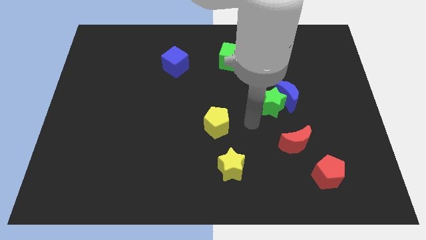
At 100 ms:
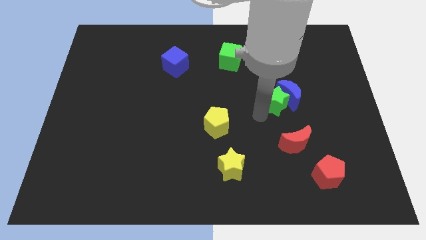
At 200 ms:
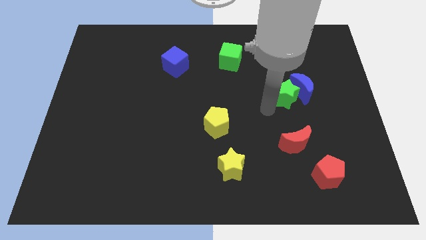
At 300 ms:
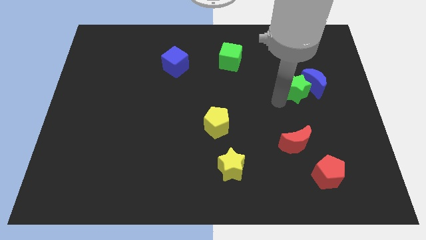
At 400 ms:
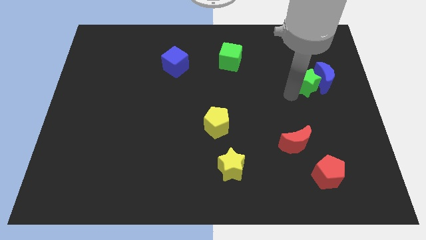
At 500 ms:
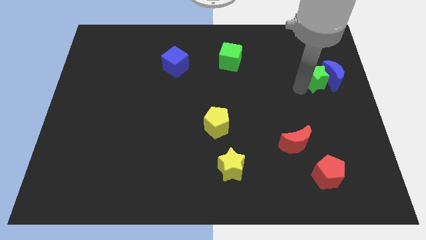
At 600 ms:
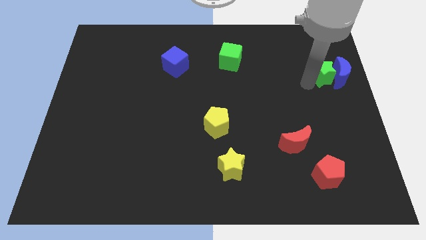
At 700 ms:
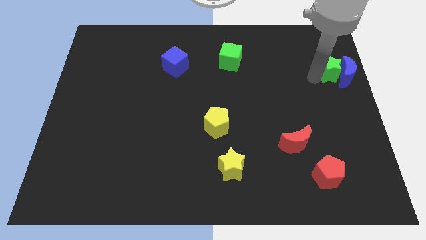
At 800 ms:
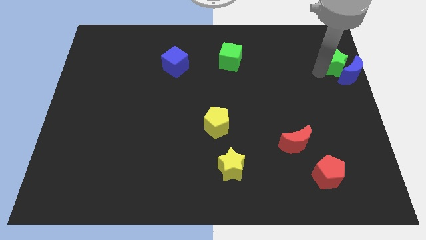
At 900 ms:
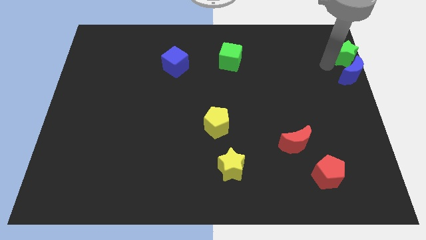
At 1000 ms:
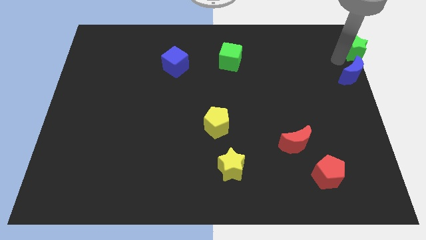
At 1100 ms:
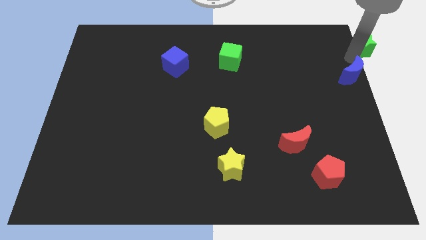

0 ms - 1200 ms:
move the blue moon away from the green star

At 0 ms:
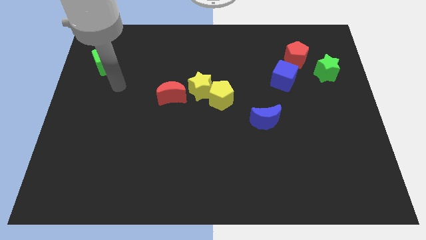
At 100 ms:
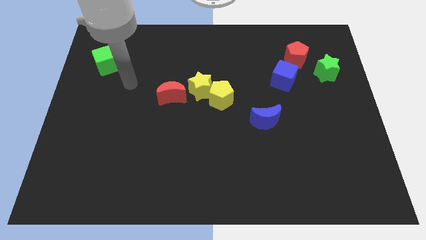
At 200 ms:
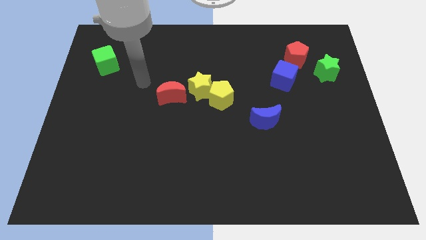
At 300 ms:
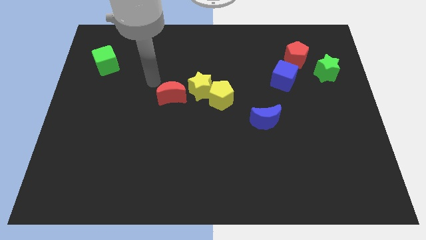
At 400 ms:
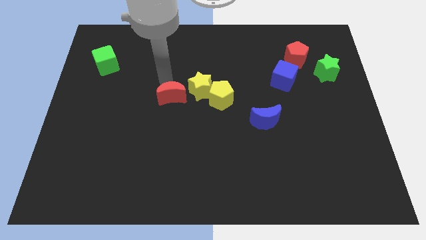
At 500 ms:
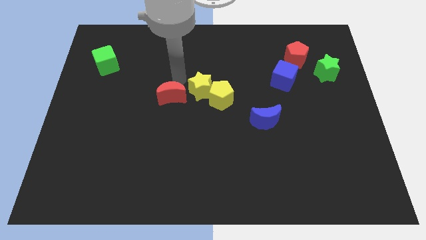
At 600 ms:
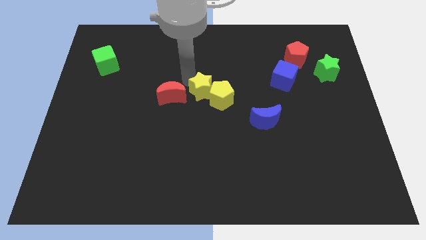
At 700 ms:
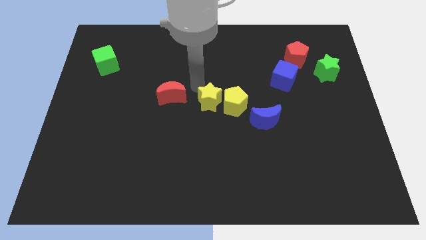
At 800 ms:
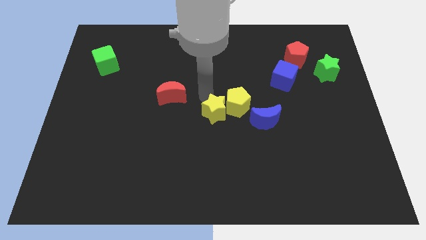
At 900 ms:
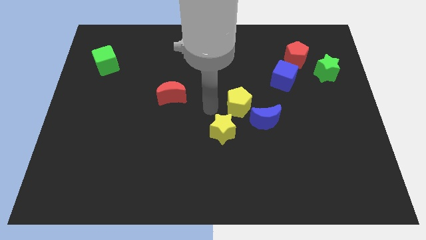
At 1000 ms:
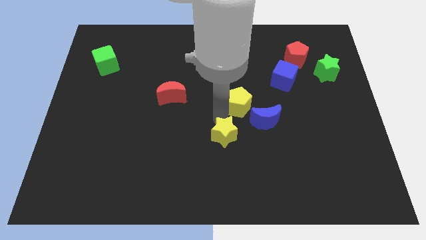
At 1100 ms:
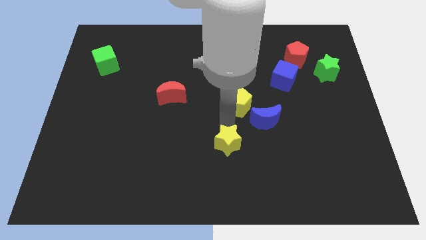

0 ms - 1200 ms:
separate the yellow pentagon from the yellow star

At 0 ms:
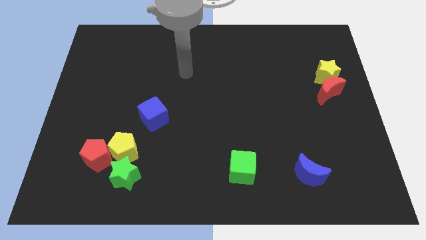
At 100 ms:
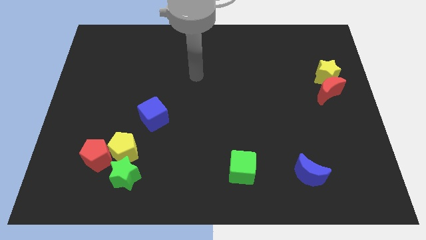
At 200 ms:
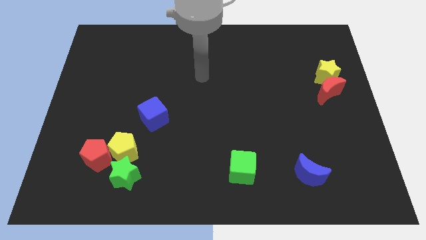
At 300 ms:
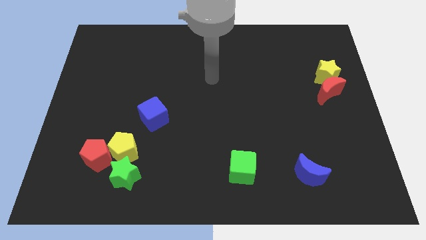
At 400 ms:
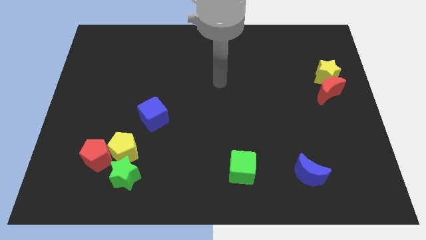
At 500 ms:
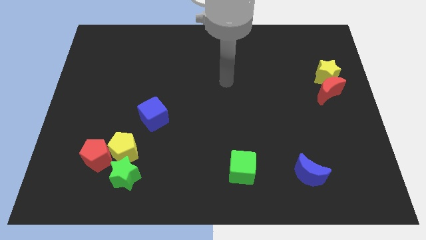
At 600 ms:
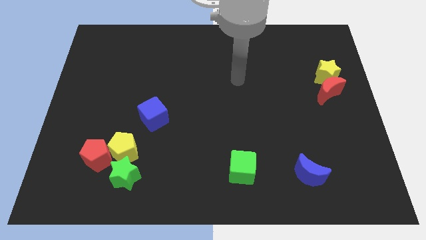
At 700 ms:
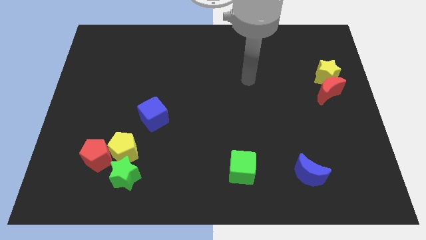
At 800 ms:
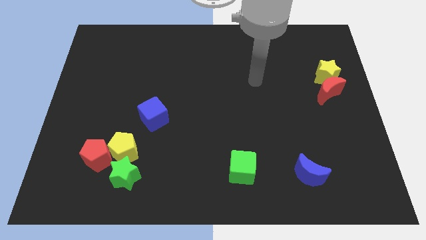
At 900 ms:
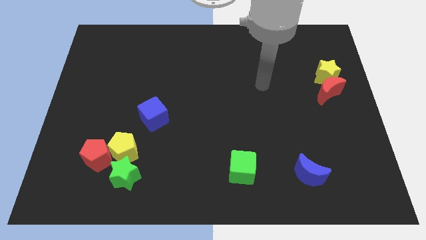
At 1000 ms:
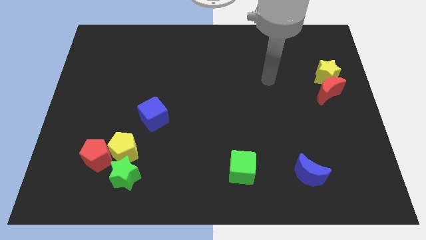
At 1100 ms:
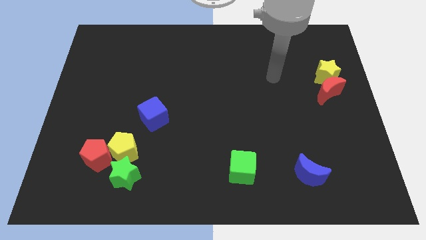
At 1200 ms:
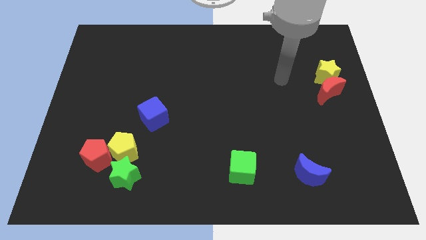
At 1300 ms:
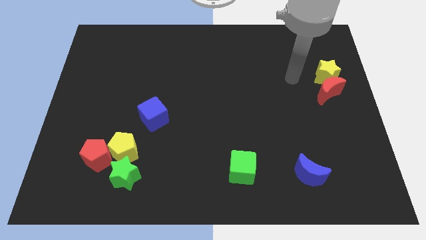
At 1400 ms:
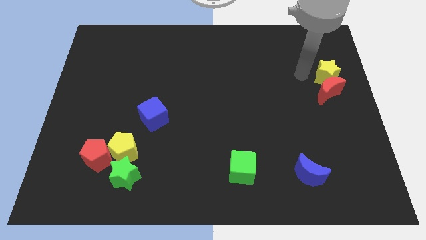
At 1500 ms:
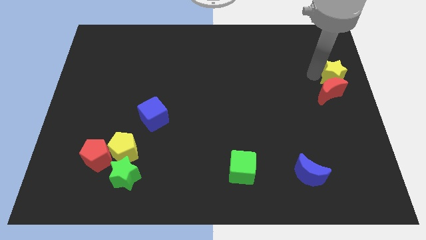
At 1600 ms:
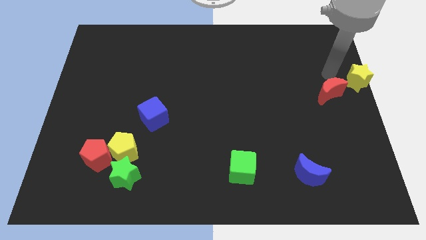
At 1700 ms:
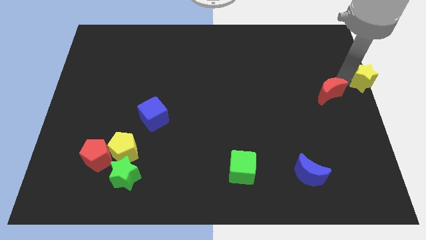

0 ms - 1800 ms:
pull the red moon apart from the yellow star

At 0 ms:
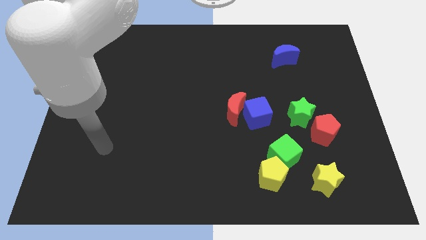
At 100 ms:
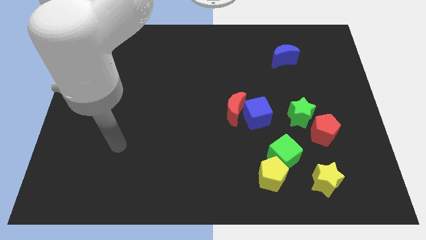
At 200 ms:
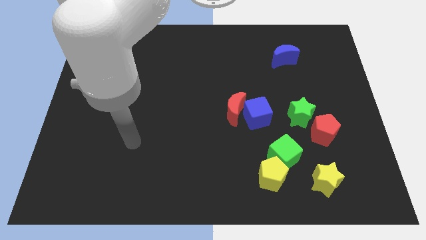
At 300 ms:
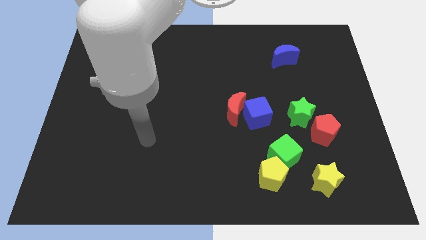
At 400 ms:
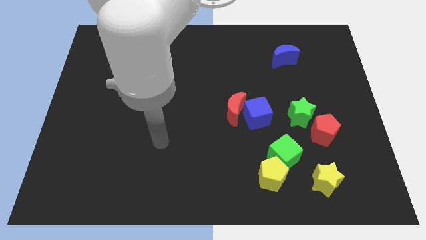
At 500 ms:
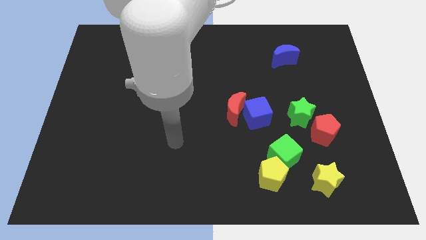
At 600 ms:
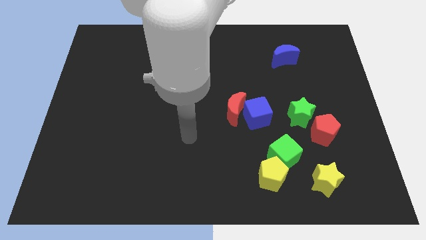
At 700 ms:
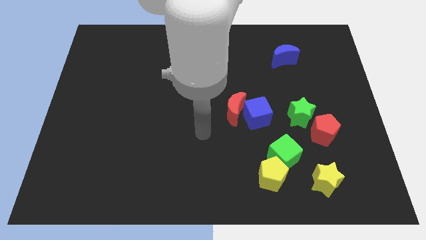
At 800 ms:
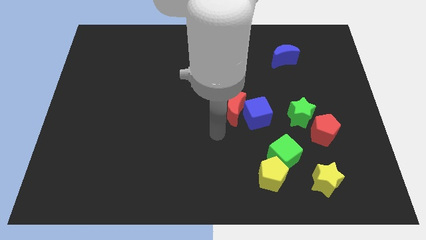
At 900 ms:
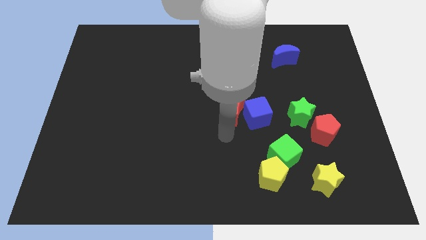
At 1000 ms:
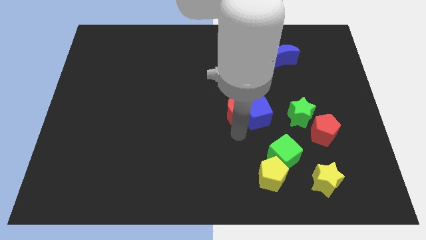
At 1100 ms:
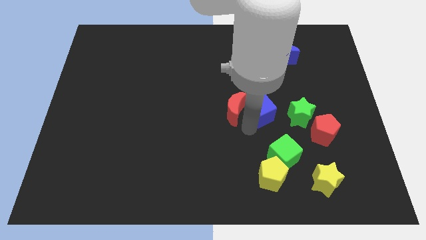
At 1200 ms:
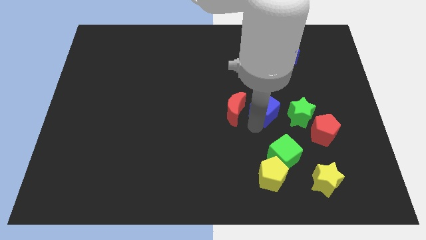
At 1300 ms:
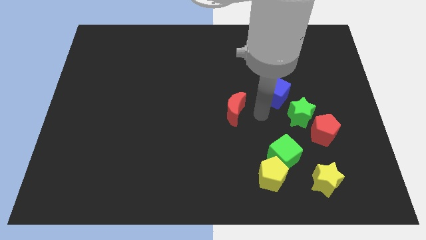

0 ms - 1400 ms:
pull the red moon apart from the blue cube

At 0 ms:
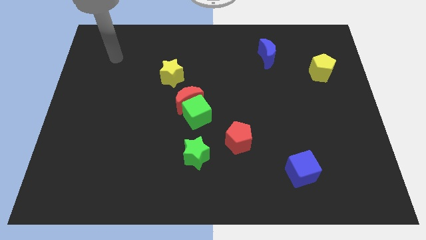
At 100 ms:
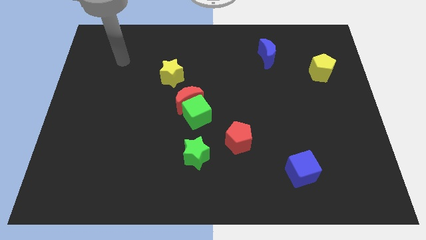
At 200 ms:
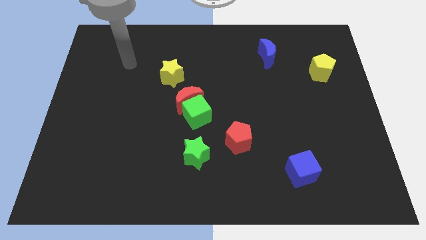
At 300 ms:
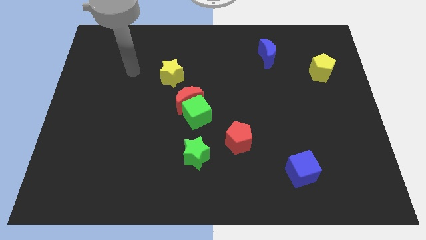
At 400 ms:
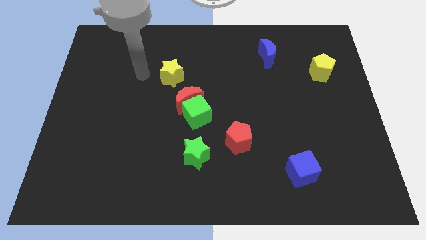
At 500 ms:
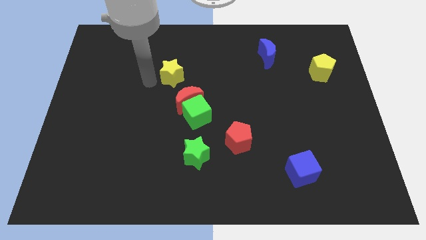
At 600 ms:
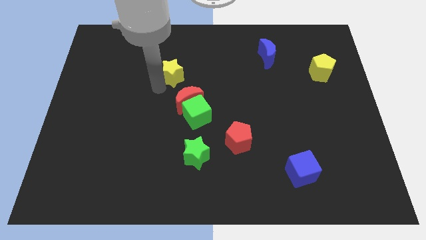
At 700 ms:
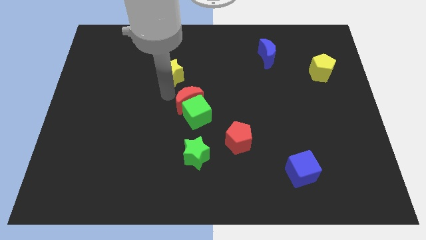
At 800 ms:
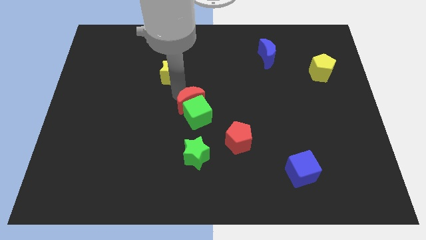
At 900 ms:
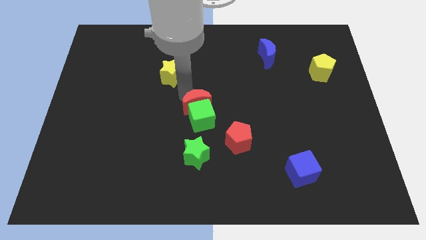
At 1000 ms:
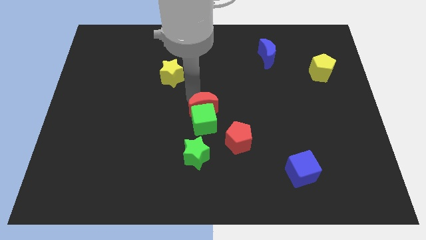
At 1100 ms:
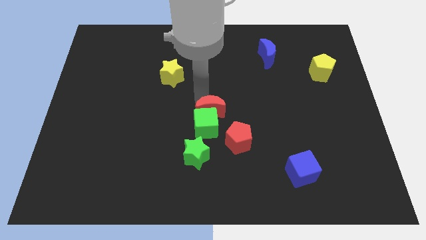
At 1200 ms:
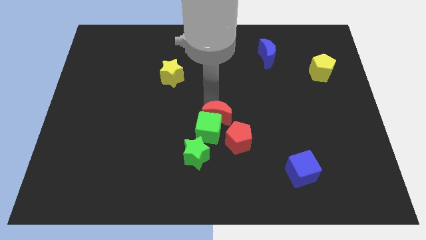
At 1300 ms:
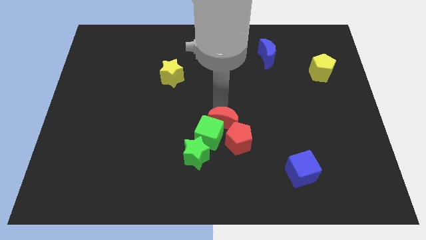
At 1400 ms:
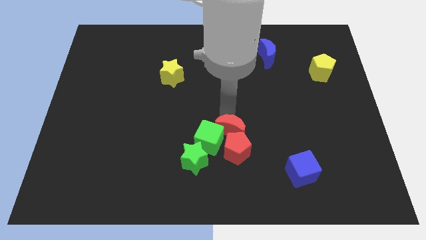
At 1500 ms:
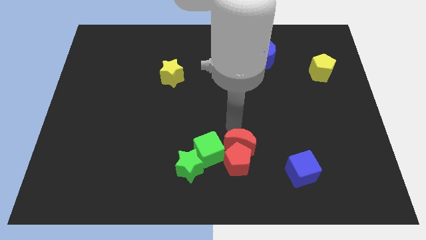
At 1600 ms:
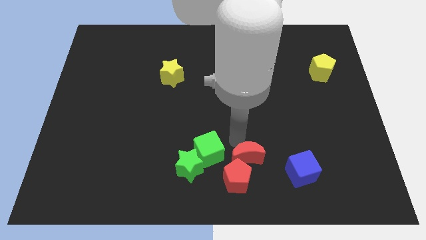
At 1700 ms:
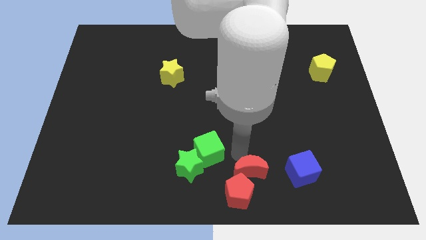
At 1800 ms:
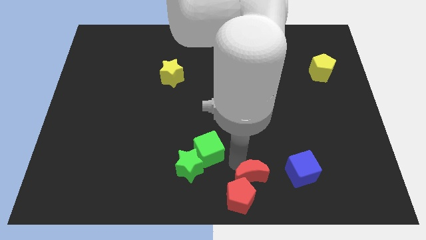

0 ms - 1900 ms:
move the green cube away from the red moon

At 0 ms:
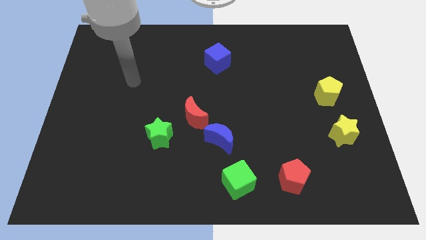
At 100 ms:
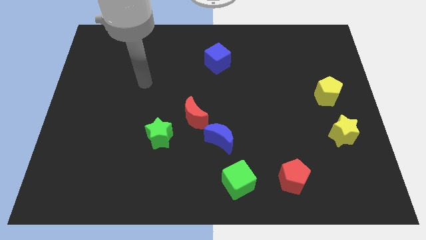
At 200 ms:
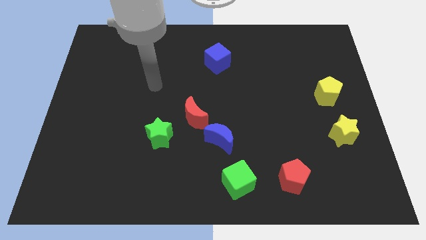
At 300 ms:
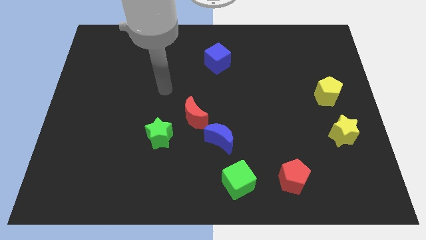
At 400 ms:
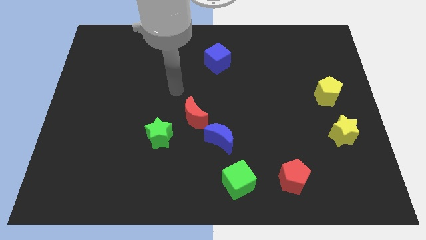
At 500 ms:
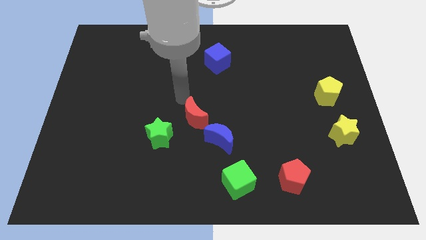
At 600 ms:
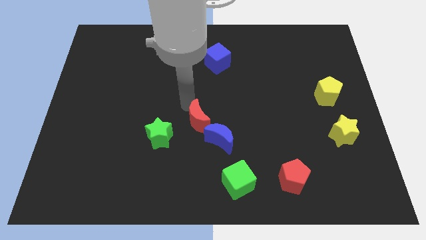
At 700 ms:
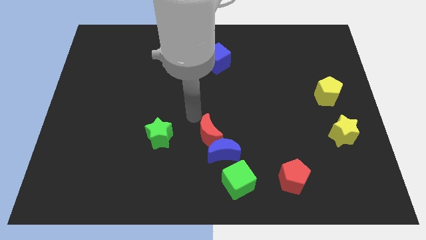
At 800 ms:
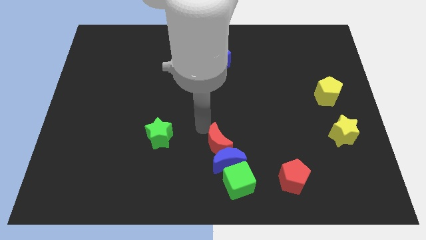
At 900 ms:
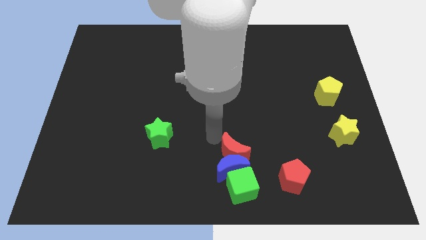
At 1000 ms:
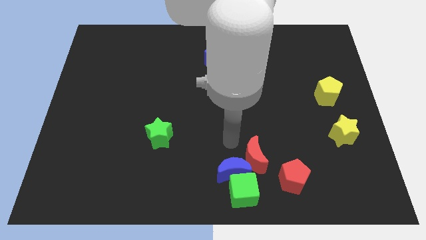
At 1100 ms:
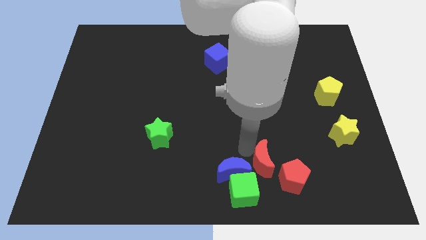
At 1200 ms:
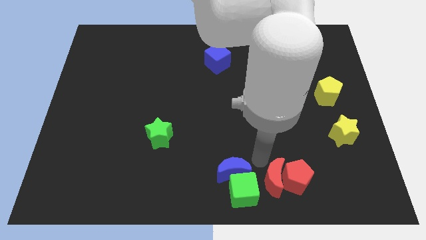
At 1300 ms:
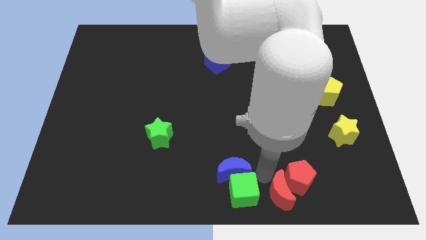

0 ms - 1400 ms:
separate the blue moon from the red moon

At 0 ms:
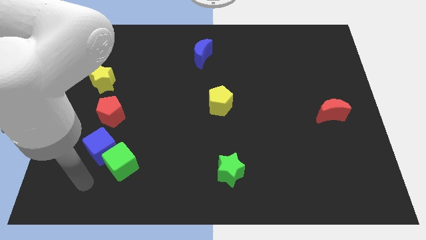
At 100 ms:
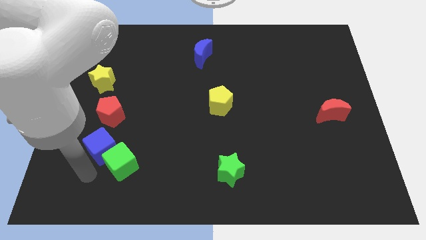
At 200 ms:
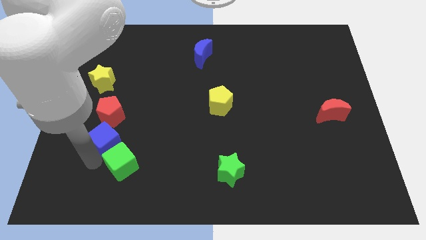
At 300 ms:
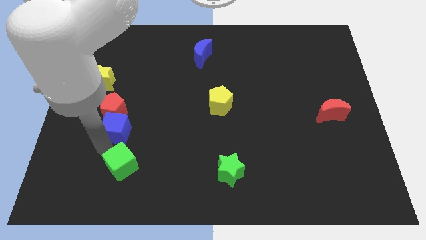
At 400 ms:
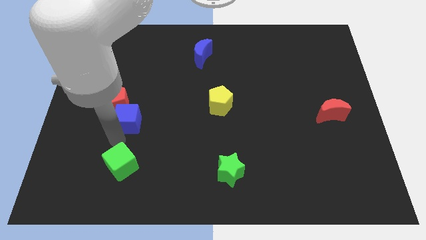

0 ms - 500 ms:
pull the green cube apart from the blue cube
